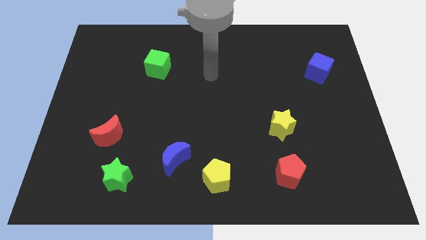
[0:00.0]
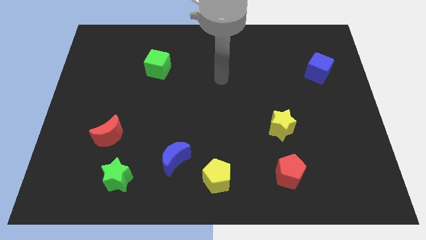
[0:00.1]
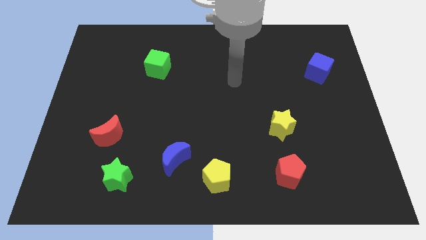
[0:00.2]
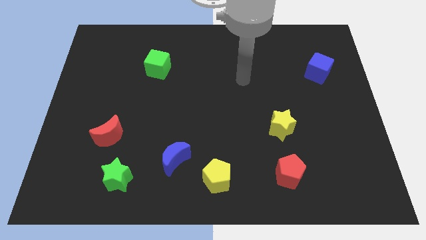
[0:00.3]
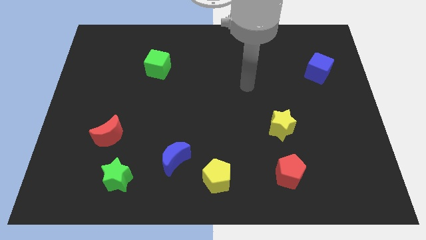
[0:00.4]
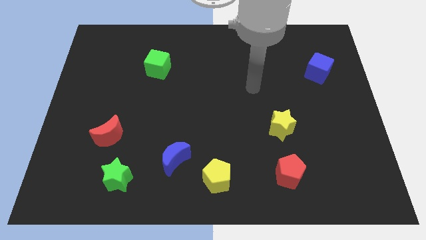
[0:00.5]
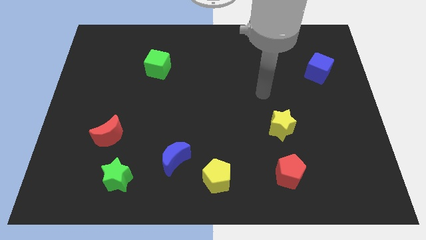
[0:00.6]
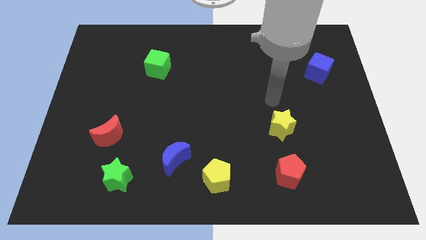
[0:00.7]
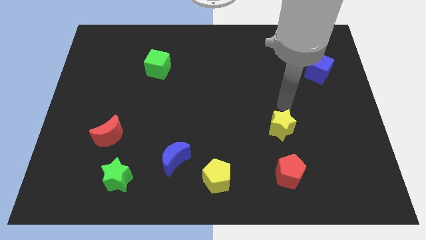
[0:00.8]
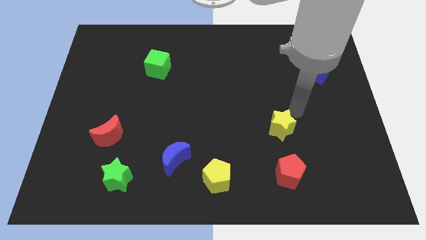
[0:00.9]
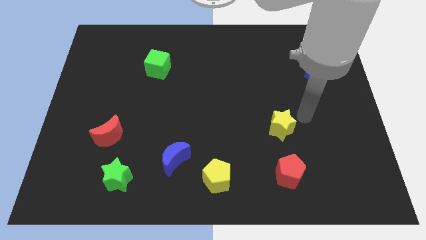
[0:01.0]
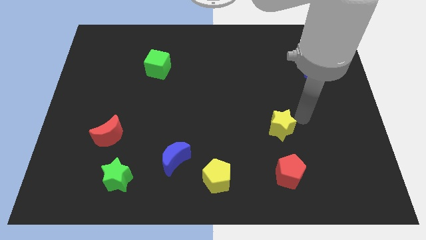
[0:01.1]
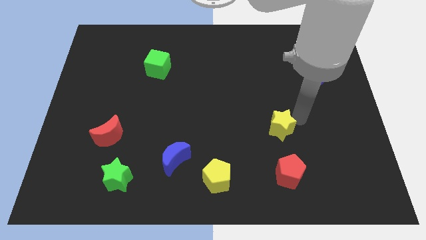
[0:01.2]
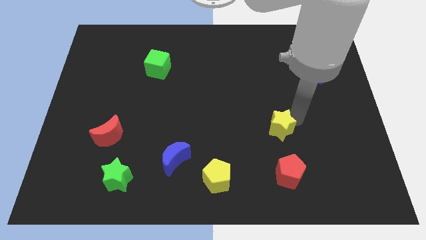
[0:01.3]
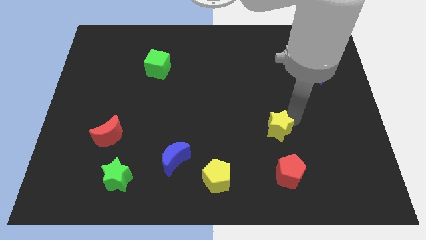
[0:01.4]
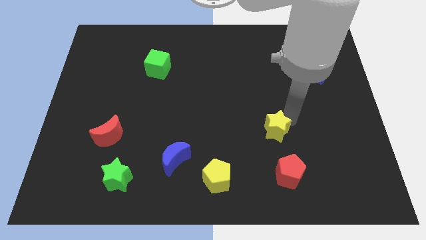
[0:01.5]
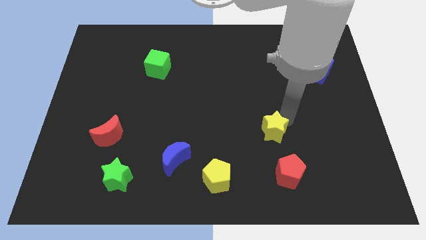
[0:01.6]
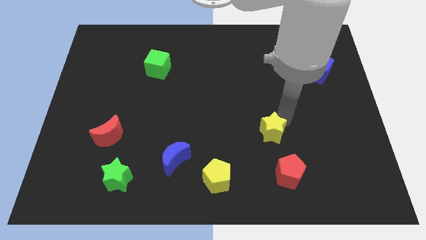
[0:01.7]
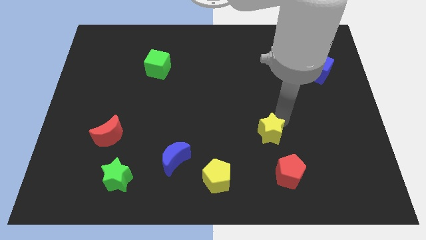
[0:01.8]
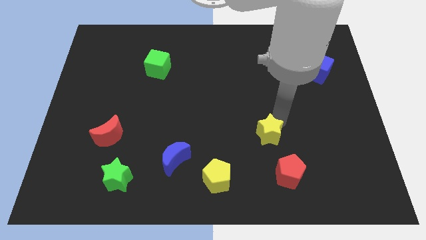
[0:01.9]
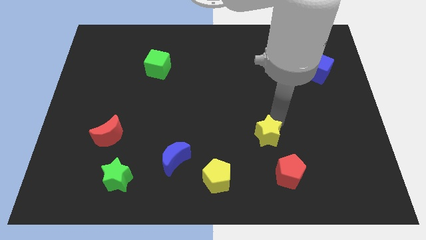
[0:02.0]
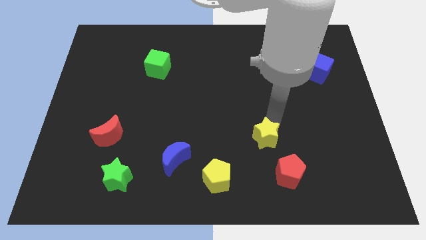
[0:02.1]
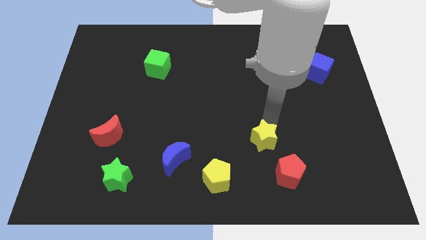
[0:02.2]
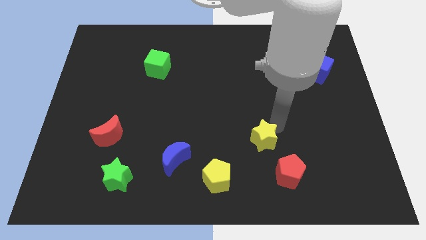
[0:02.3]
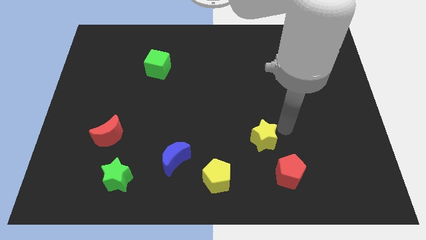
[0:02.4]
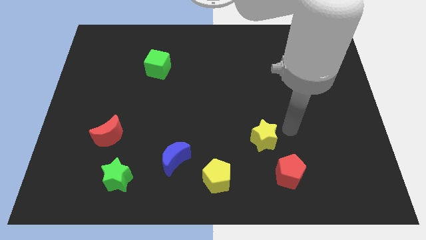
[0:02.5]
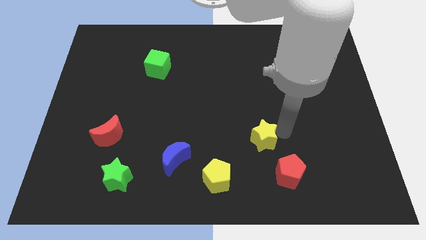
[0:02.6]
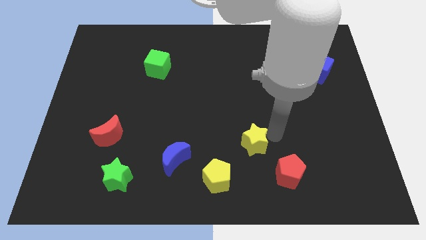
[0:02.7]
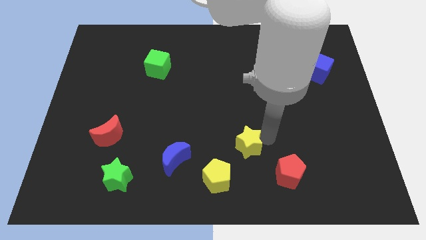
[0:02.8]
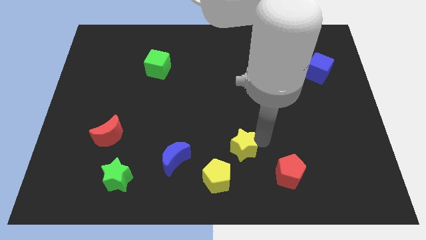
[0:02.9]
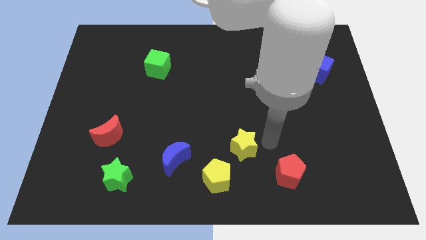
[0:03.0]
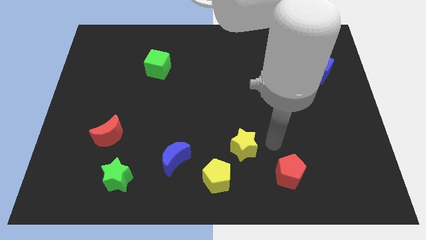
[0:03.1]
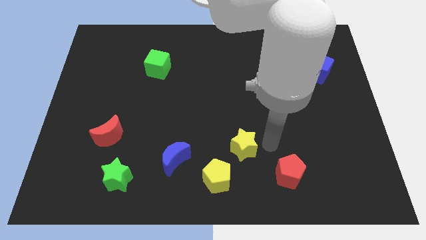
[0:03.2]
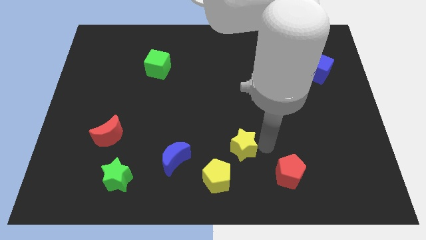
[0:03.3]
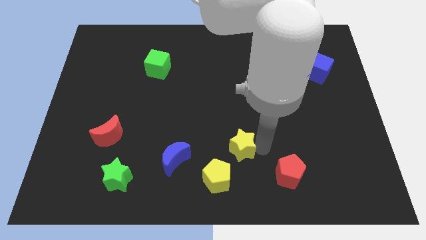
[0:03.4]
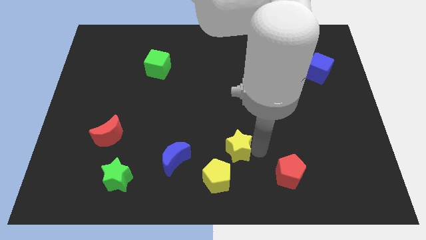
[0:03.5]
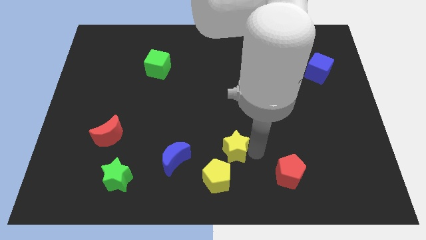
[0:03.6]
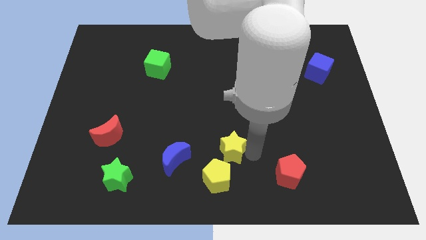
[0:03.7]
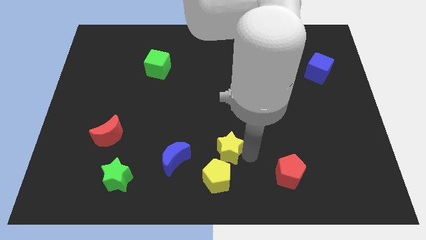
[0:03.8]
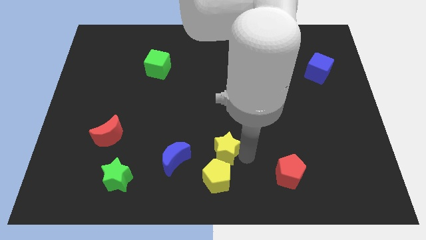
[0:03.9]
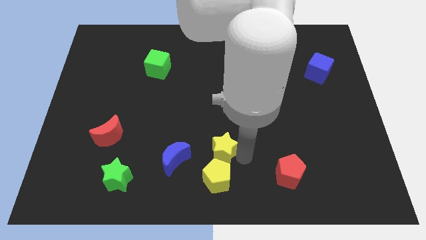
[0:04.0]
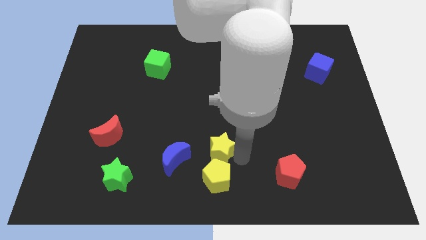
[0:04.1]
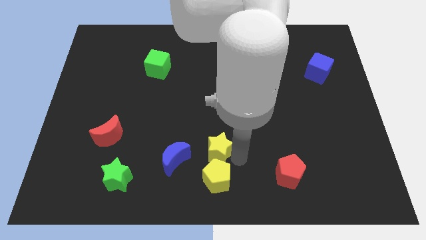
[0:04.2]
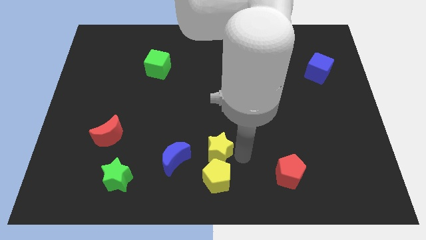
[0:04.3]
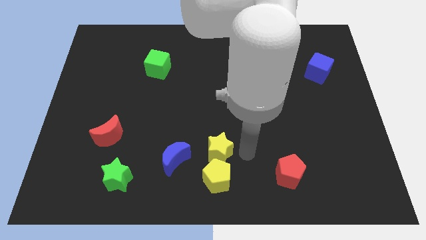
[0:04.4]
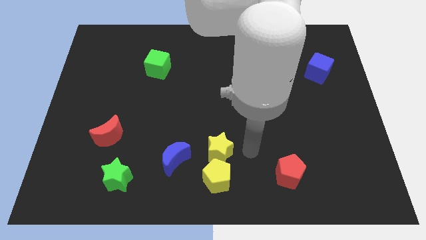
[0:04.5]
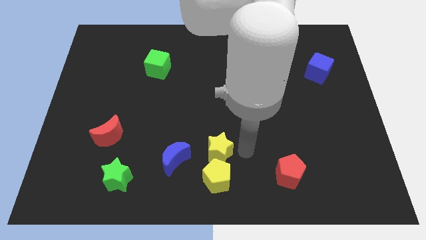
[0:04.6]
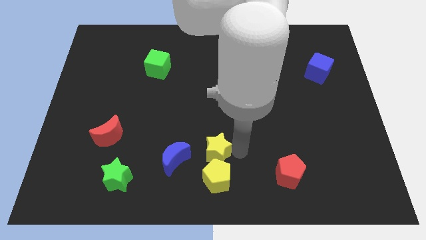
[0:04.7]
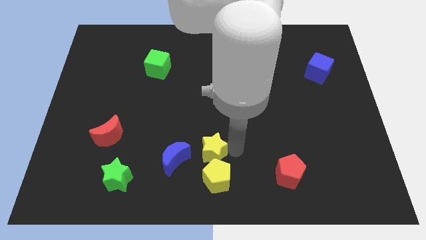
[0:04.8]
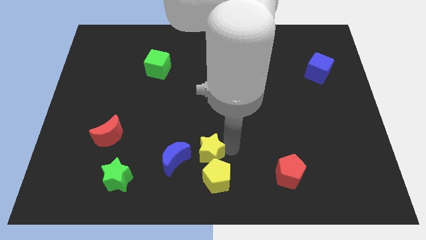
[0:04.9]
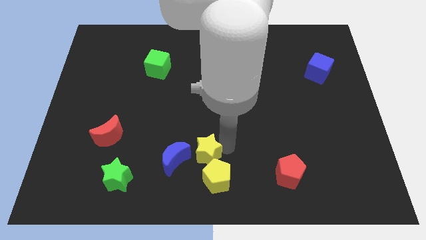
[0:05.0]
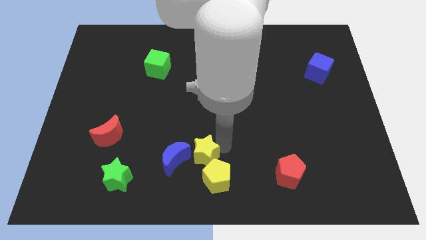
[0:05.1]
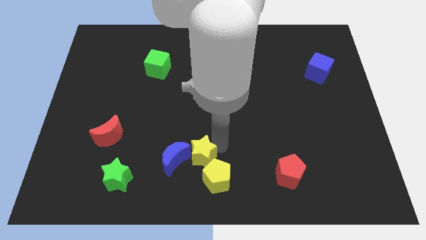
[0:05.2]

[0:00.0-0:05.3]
slide the yellow star towards the blue moon

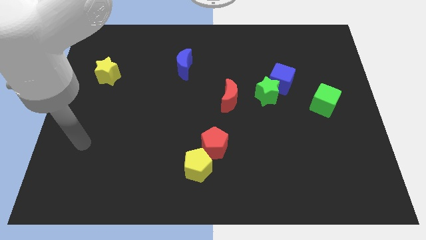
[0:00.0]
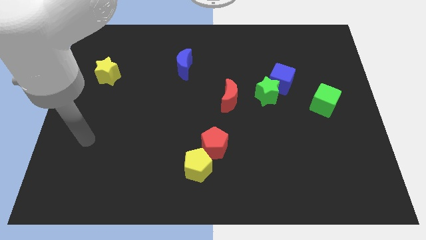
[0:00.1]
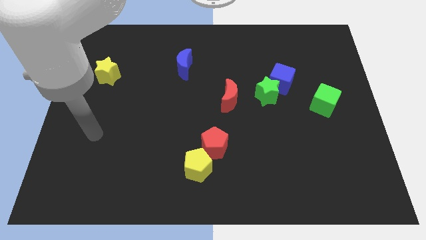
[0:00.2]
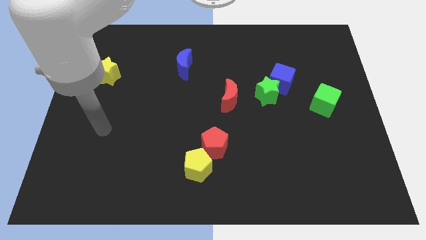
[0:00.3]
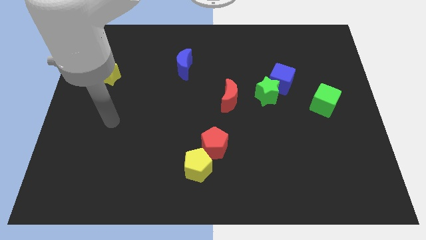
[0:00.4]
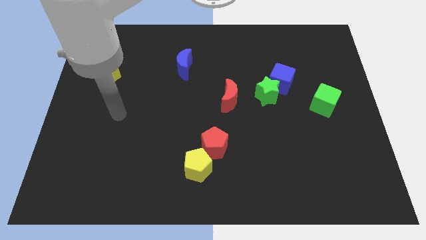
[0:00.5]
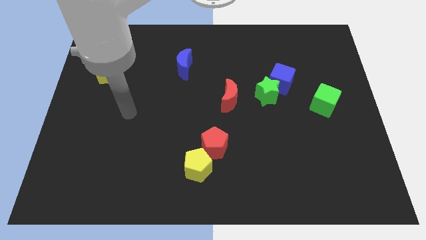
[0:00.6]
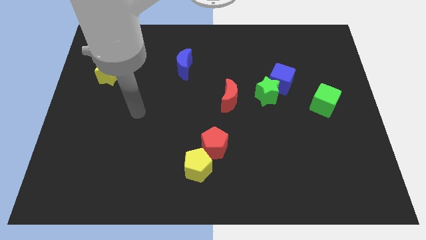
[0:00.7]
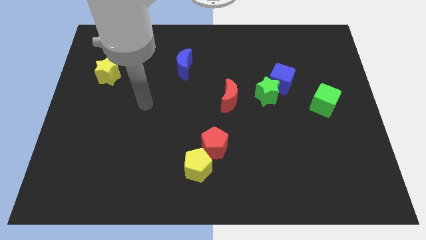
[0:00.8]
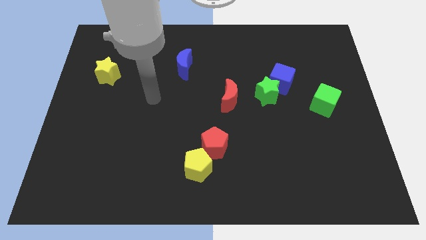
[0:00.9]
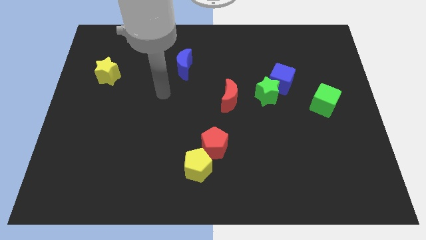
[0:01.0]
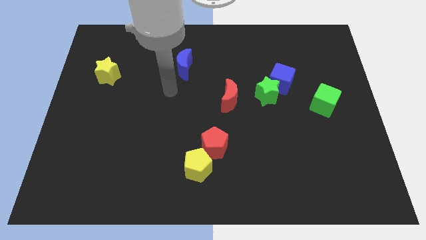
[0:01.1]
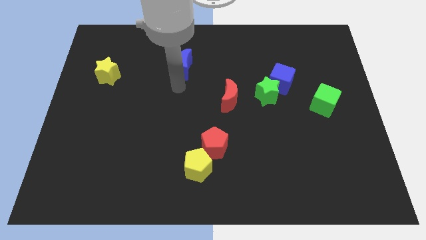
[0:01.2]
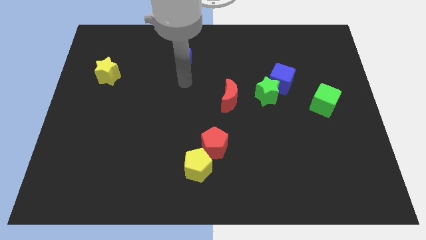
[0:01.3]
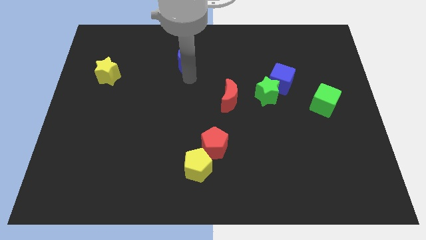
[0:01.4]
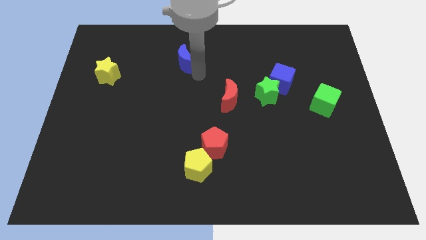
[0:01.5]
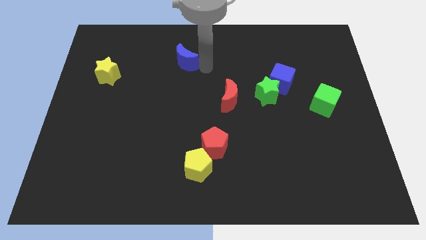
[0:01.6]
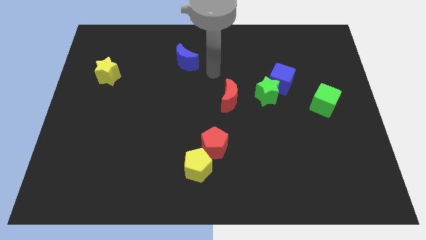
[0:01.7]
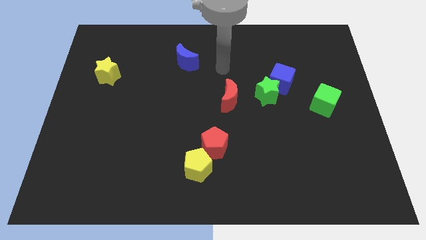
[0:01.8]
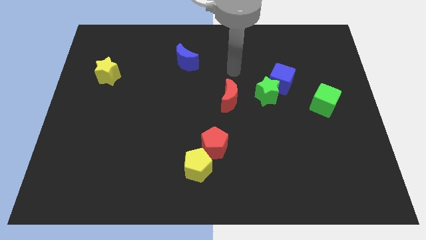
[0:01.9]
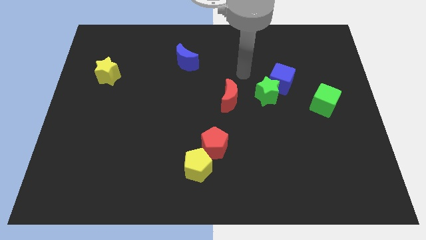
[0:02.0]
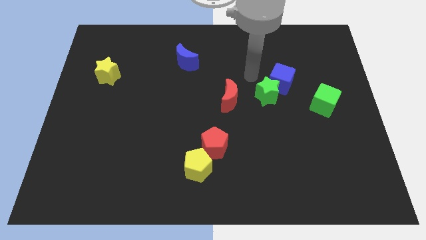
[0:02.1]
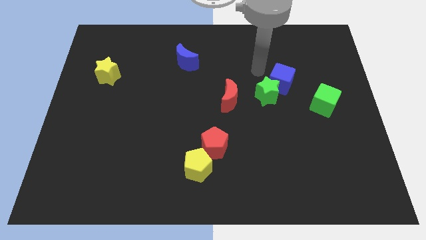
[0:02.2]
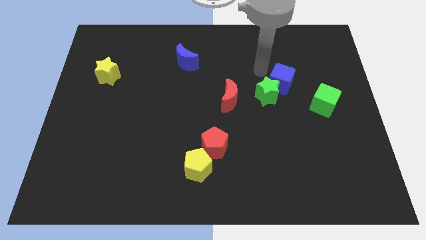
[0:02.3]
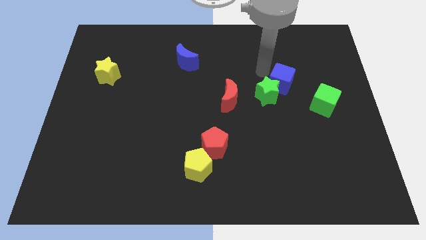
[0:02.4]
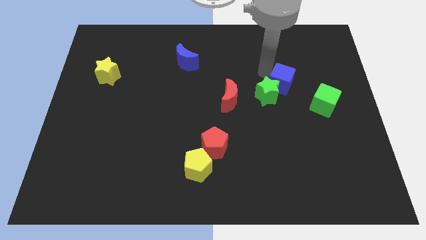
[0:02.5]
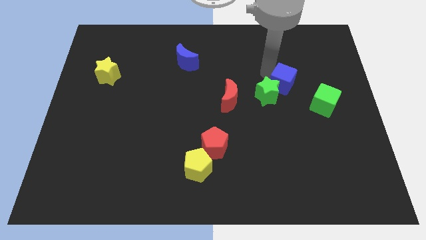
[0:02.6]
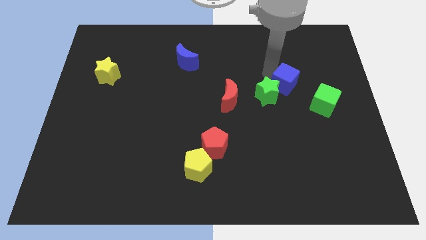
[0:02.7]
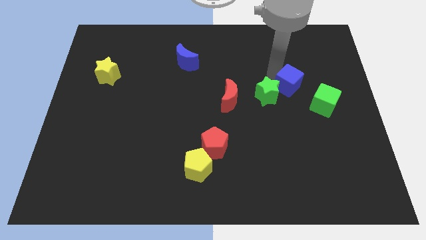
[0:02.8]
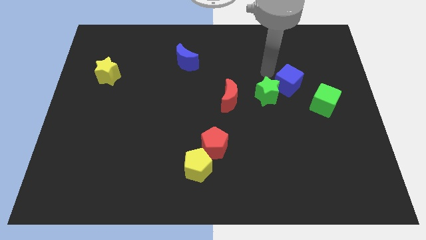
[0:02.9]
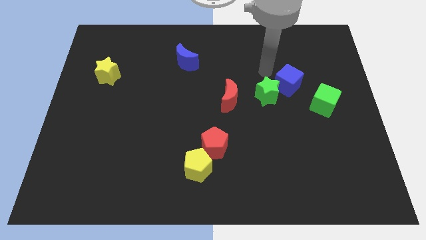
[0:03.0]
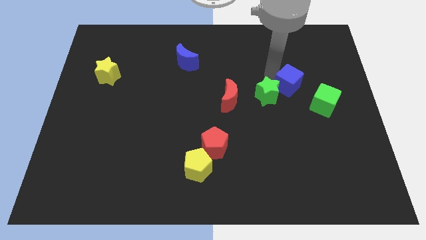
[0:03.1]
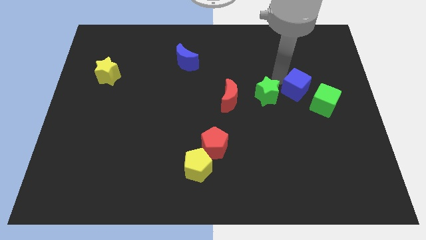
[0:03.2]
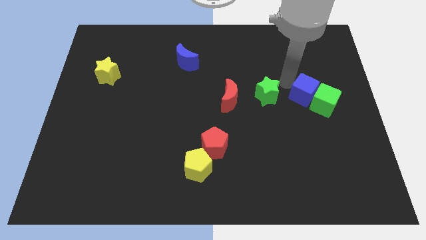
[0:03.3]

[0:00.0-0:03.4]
slide the blue cube to the green cube
